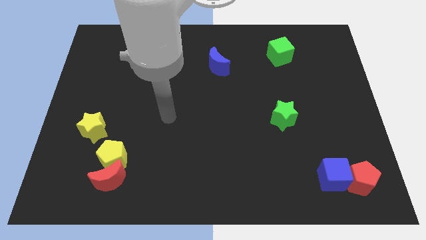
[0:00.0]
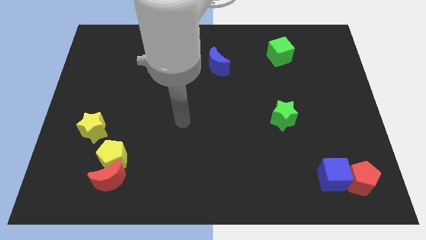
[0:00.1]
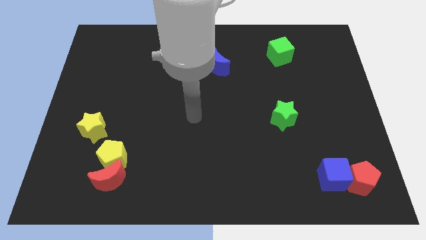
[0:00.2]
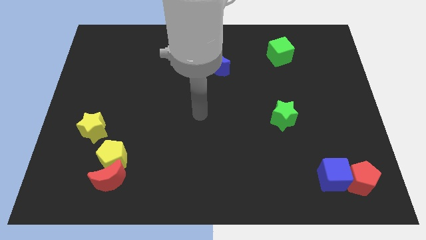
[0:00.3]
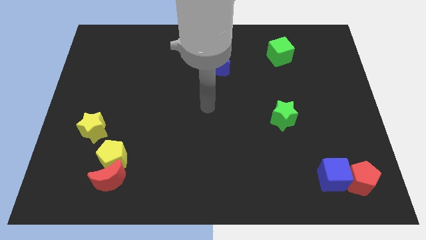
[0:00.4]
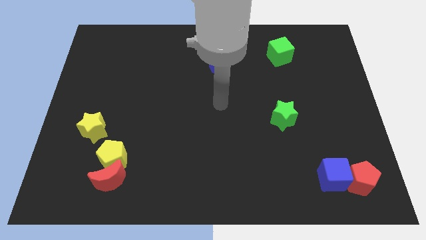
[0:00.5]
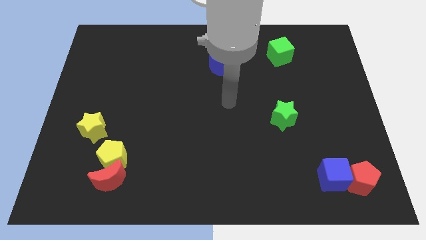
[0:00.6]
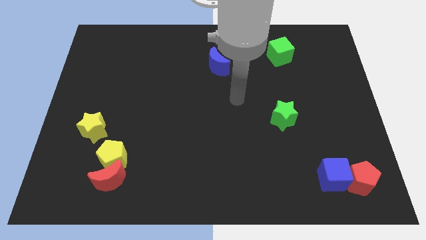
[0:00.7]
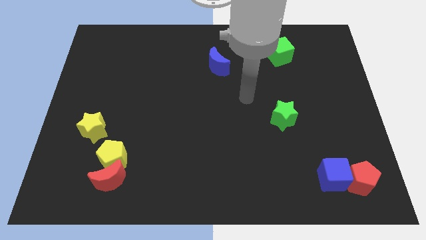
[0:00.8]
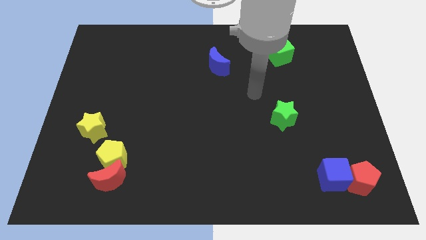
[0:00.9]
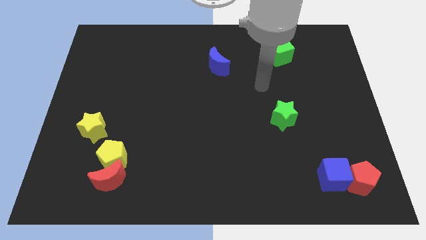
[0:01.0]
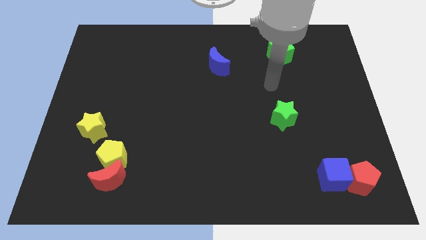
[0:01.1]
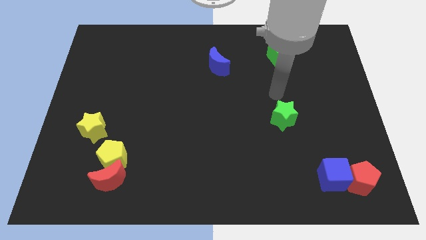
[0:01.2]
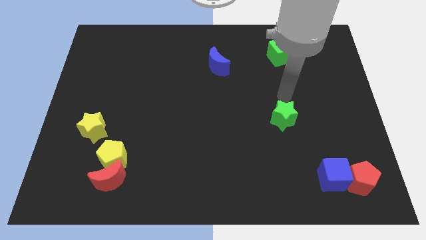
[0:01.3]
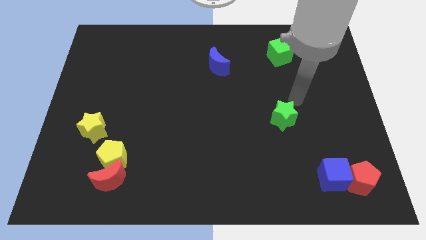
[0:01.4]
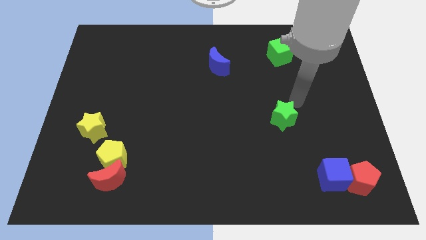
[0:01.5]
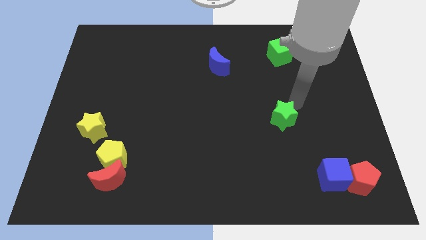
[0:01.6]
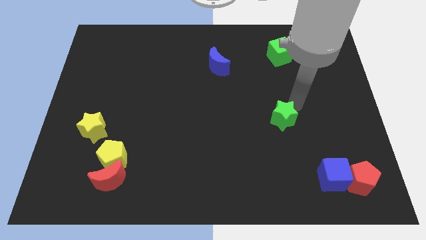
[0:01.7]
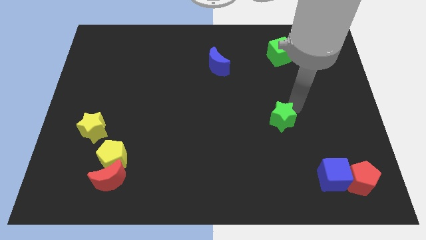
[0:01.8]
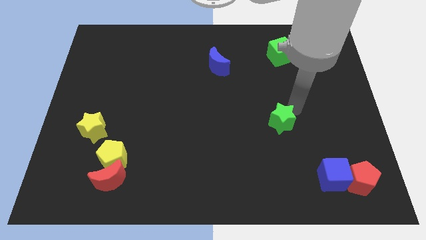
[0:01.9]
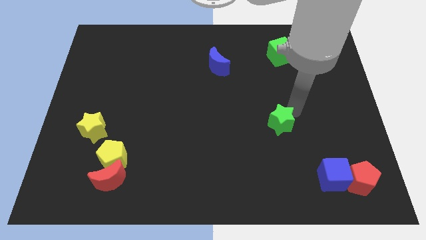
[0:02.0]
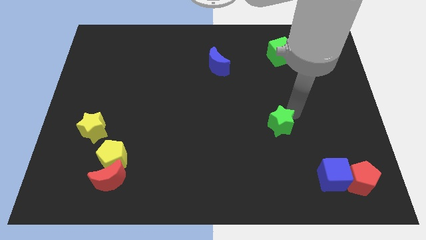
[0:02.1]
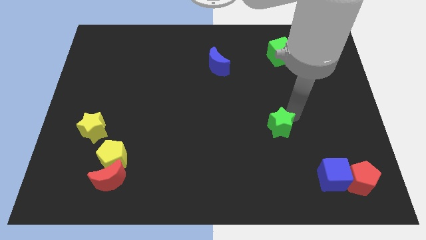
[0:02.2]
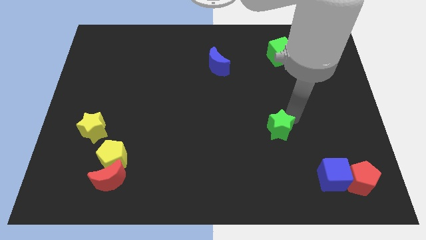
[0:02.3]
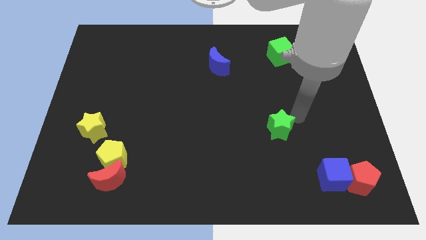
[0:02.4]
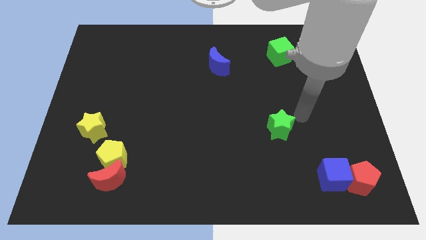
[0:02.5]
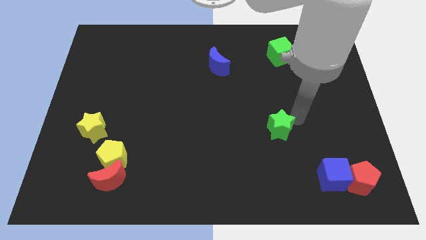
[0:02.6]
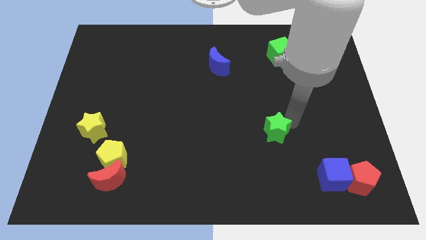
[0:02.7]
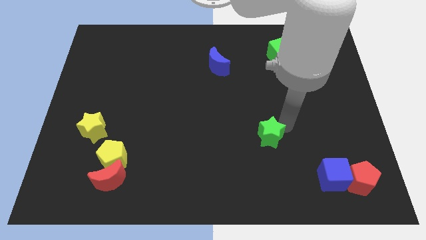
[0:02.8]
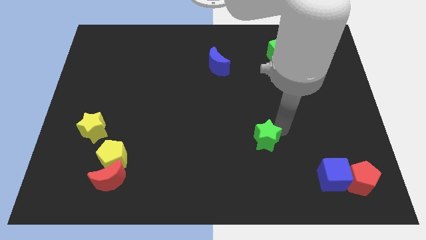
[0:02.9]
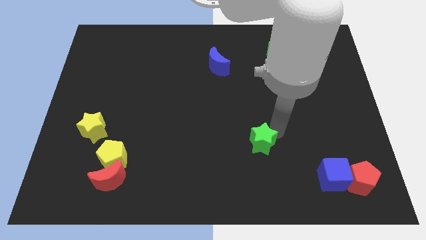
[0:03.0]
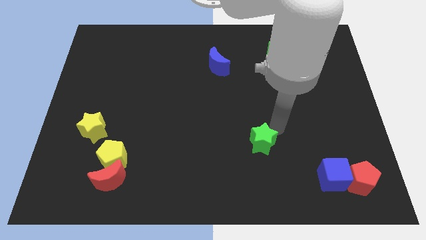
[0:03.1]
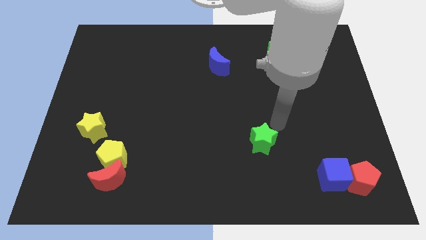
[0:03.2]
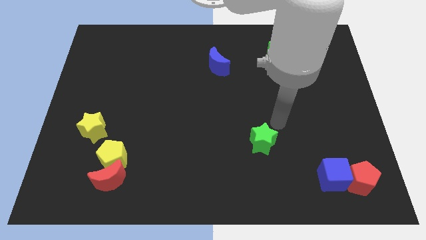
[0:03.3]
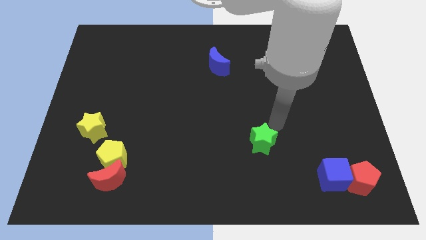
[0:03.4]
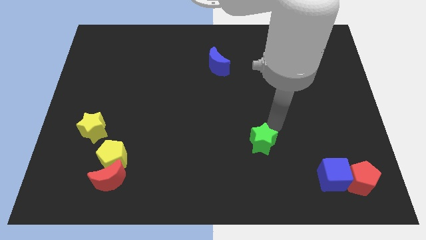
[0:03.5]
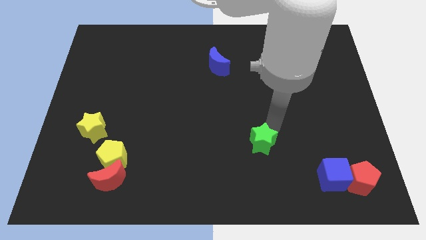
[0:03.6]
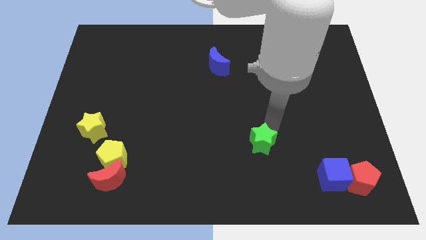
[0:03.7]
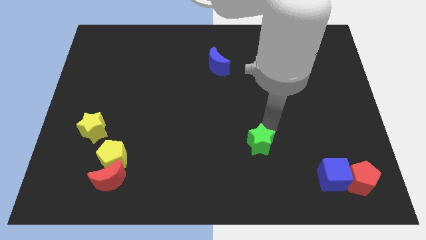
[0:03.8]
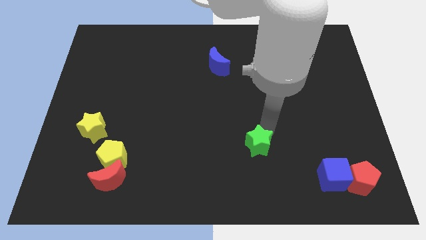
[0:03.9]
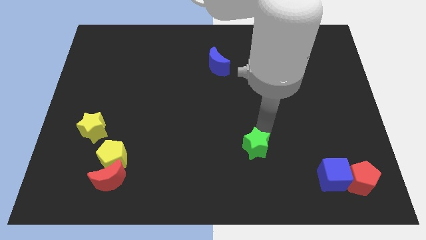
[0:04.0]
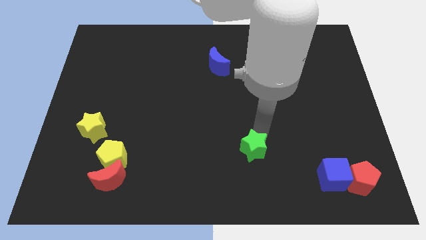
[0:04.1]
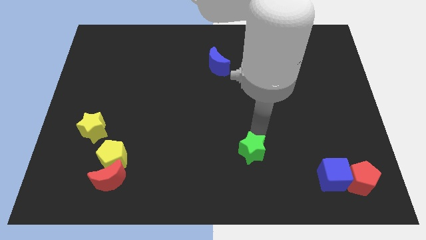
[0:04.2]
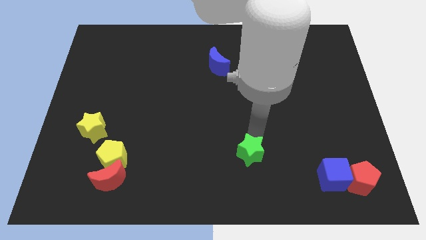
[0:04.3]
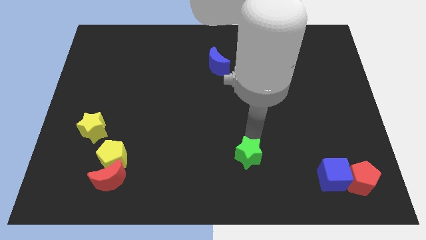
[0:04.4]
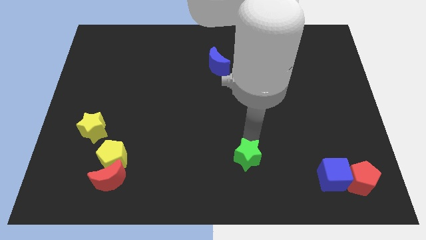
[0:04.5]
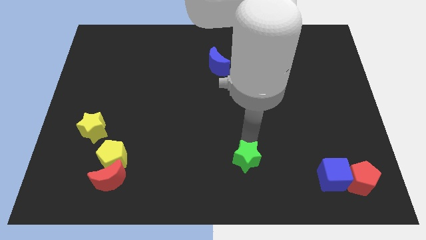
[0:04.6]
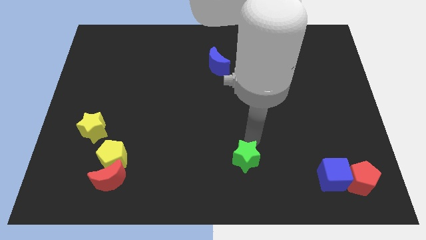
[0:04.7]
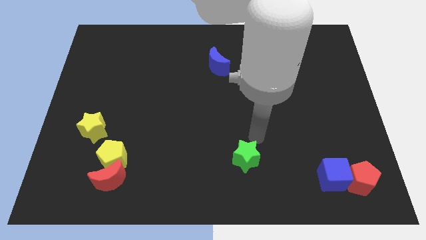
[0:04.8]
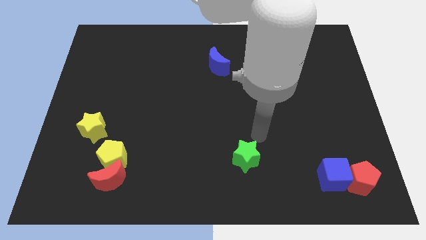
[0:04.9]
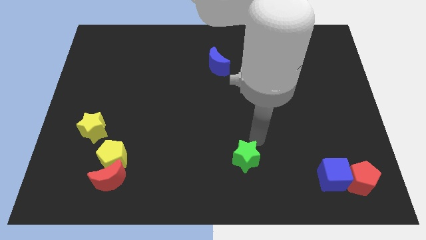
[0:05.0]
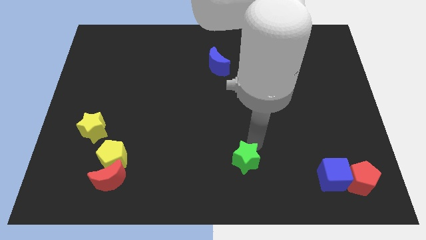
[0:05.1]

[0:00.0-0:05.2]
slide the green star to the bottom side
